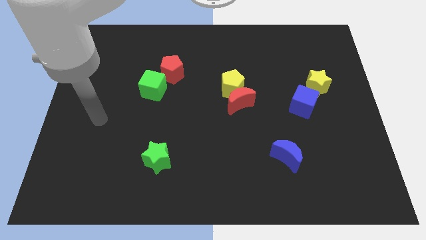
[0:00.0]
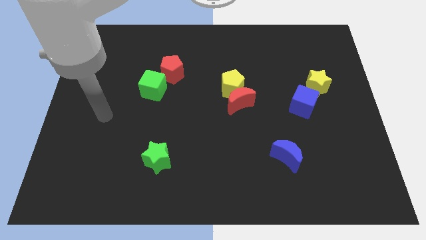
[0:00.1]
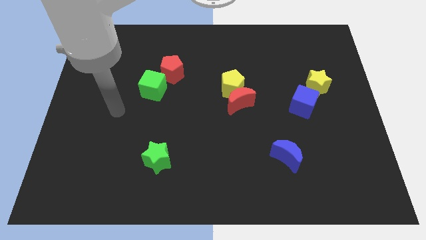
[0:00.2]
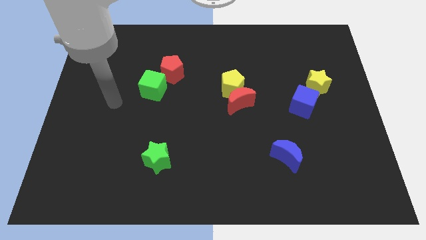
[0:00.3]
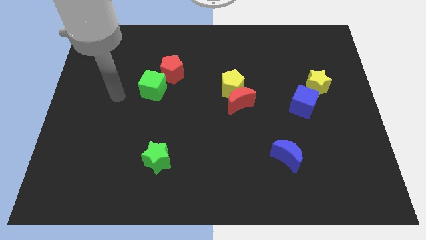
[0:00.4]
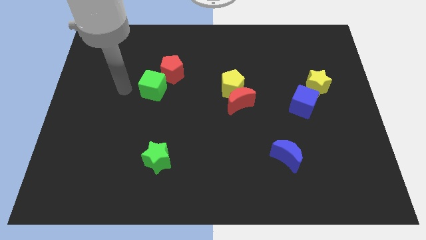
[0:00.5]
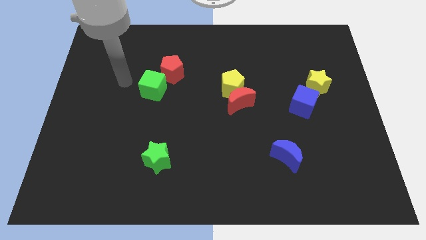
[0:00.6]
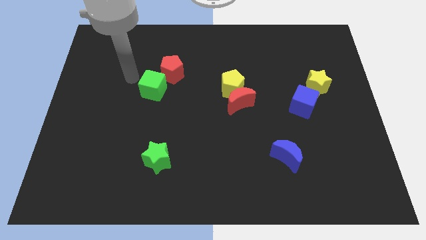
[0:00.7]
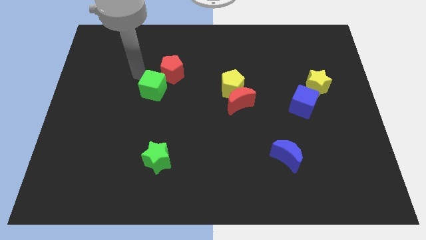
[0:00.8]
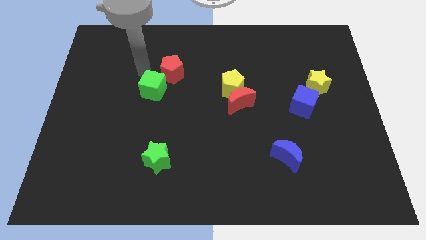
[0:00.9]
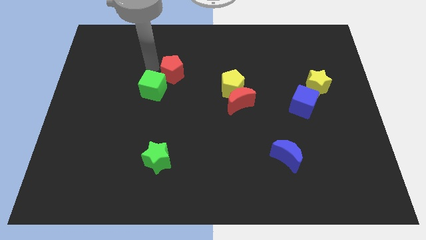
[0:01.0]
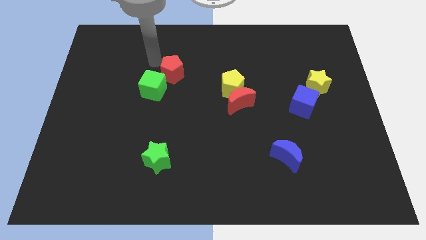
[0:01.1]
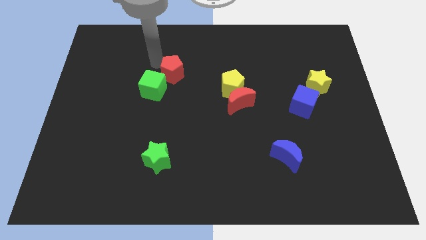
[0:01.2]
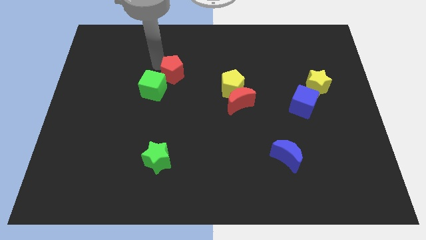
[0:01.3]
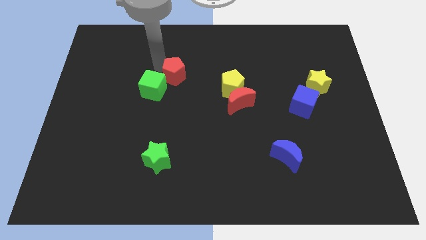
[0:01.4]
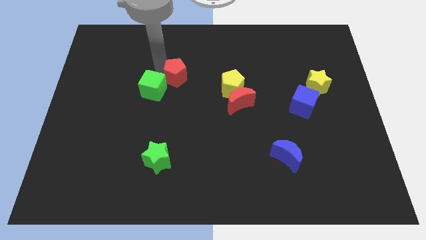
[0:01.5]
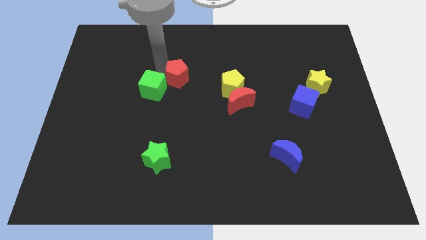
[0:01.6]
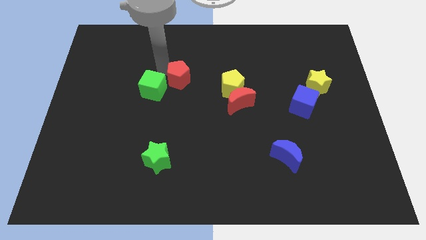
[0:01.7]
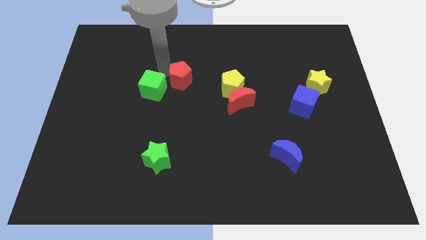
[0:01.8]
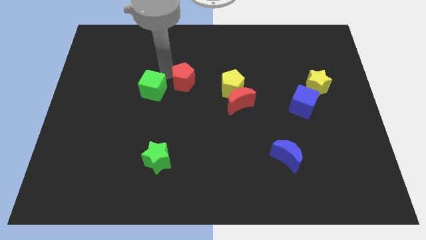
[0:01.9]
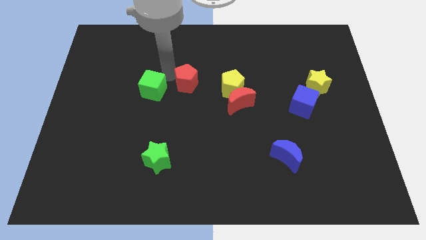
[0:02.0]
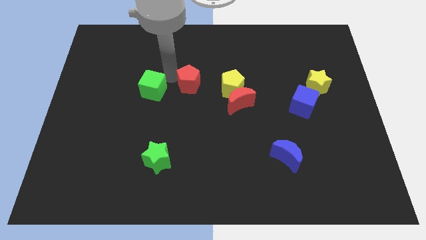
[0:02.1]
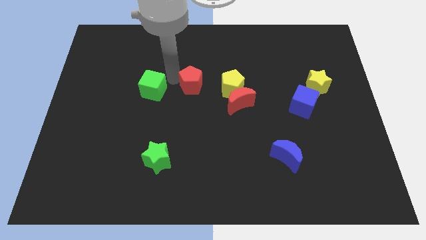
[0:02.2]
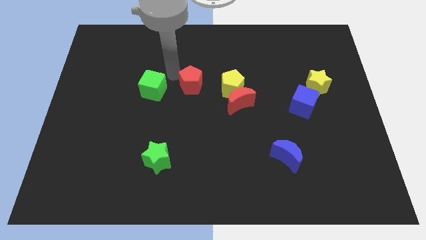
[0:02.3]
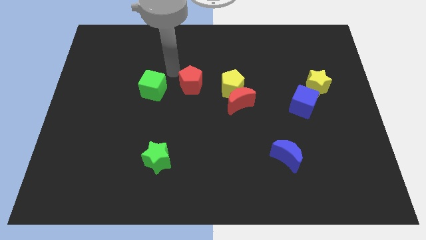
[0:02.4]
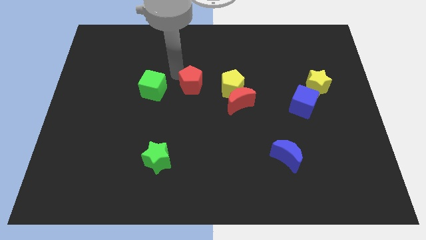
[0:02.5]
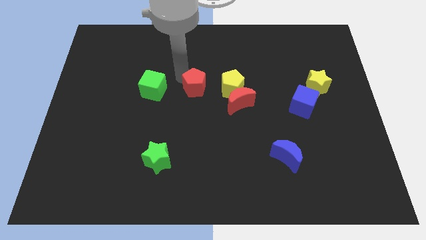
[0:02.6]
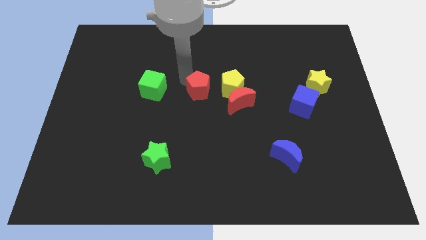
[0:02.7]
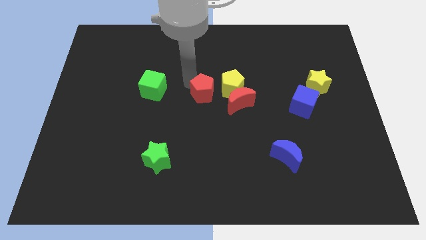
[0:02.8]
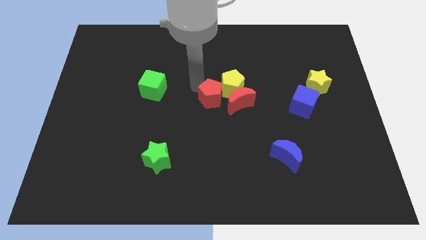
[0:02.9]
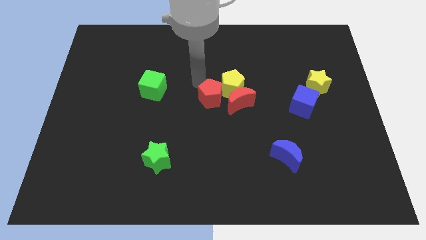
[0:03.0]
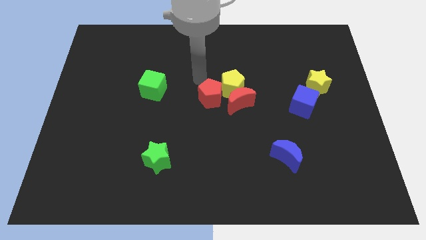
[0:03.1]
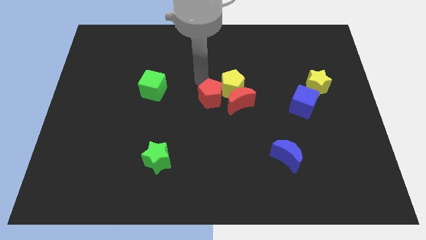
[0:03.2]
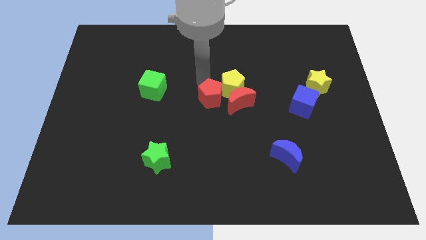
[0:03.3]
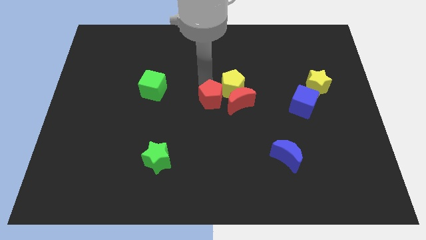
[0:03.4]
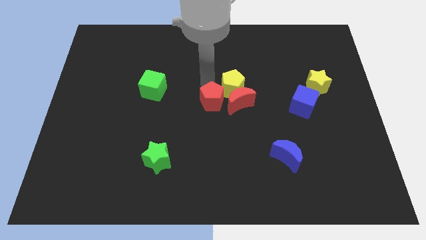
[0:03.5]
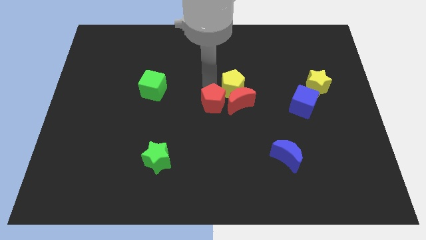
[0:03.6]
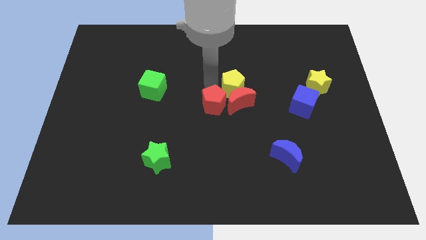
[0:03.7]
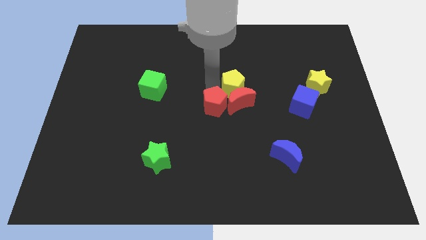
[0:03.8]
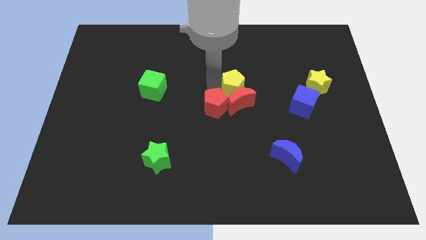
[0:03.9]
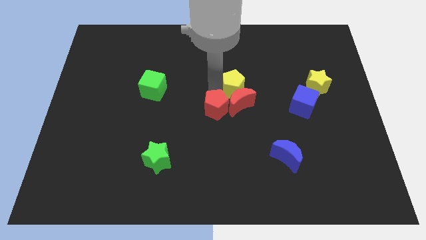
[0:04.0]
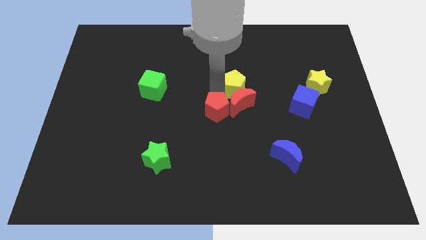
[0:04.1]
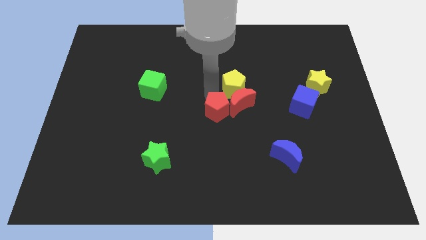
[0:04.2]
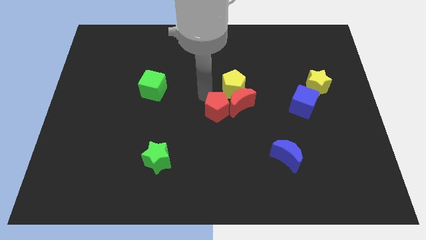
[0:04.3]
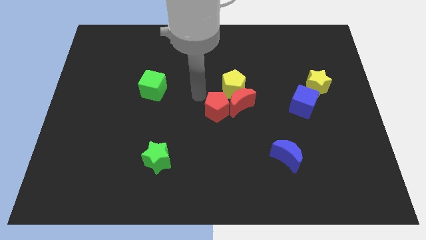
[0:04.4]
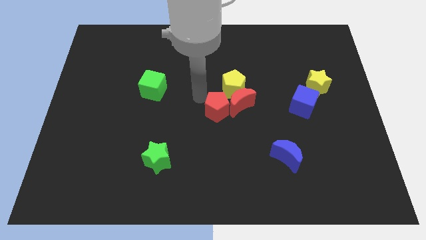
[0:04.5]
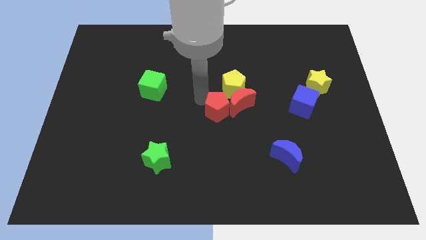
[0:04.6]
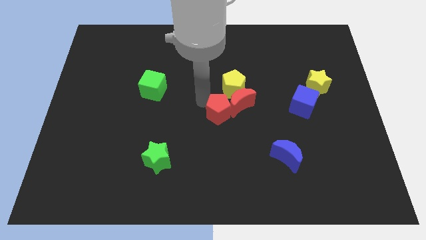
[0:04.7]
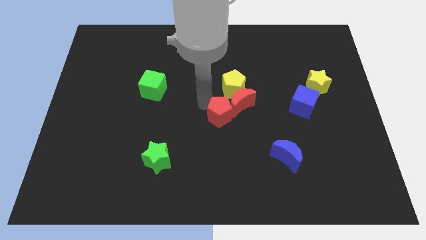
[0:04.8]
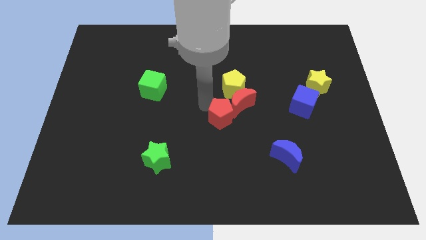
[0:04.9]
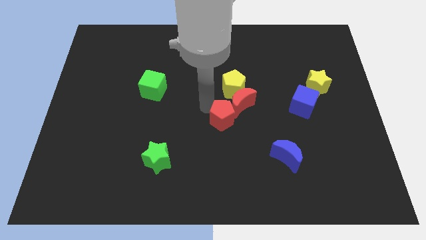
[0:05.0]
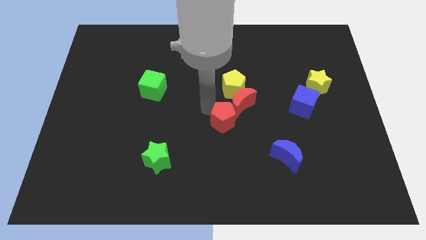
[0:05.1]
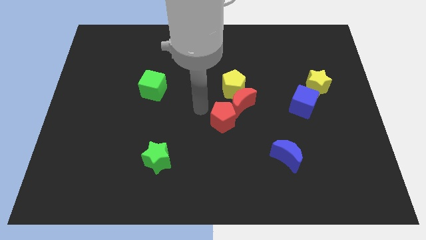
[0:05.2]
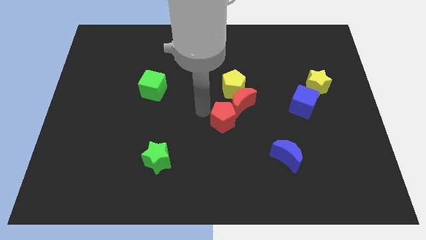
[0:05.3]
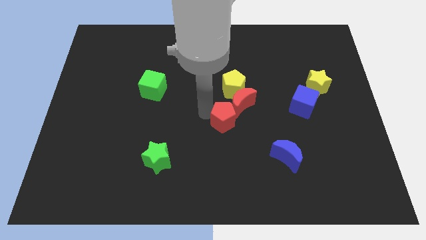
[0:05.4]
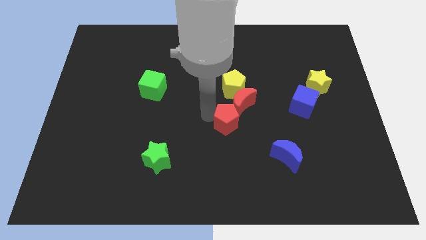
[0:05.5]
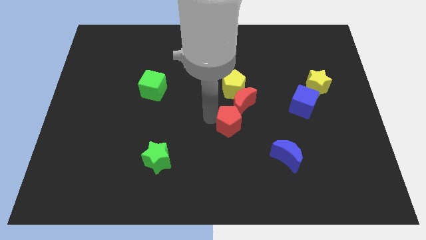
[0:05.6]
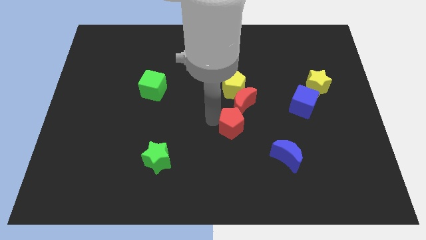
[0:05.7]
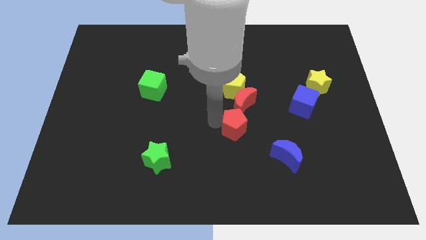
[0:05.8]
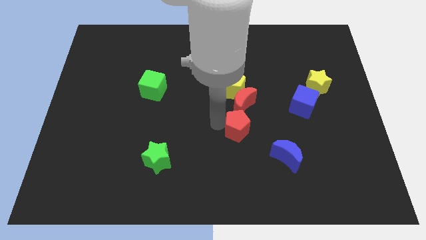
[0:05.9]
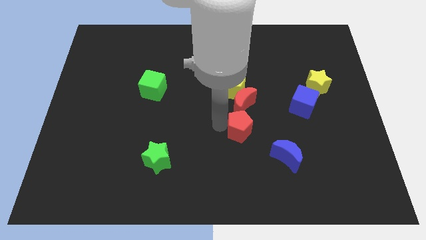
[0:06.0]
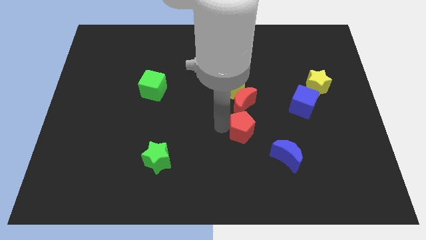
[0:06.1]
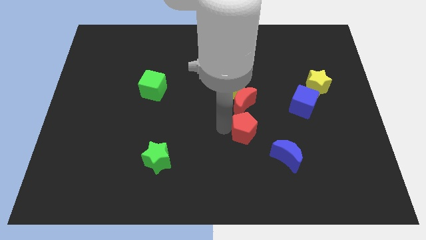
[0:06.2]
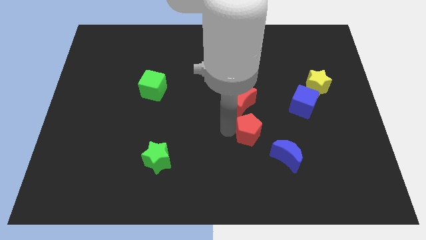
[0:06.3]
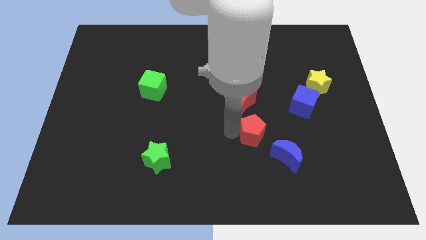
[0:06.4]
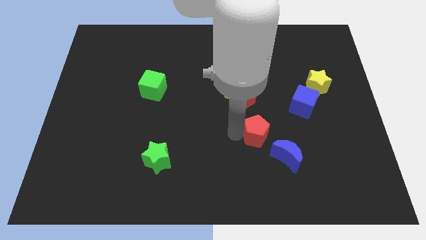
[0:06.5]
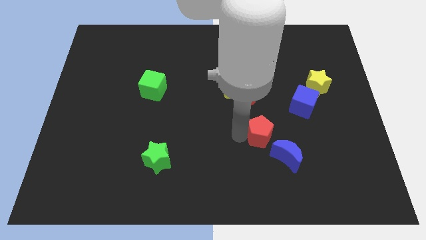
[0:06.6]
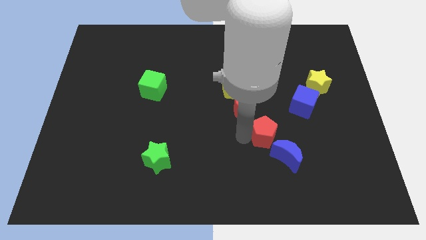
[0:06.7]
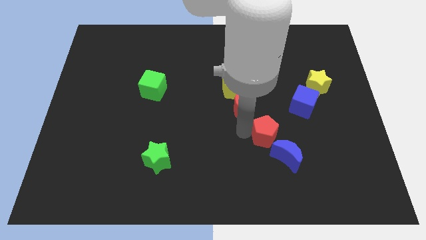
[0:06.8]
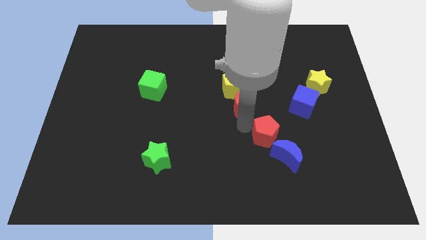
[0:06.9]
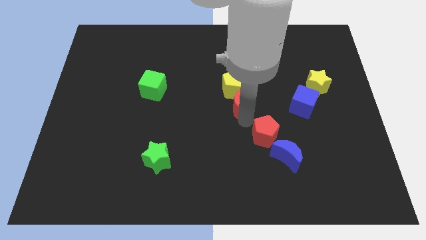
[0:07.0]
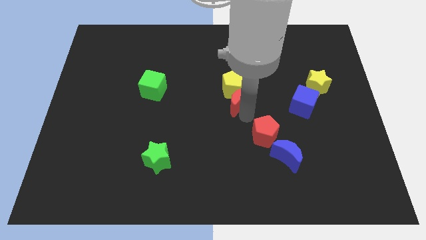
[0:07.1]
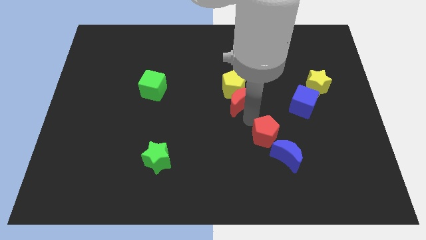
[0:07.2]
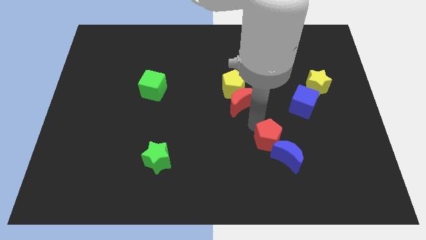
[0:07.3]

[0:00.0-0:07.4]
put the red pentagon towards the blue moon
